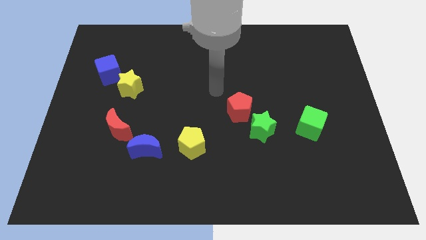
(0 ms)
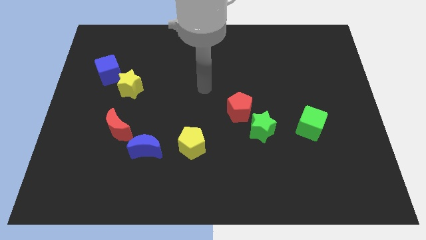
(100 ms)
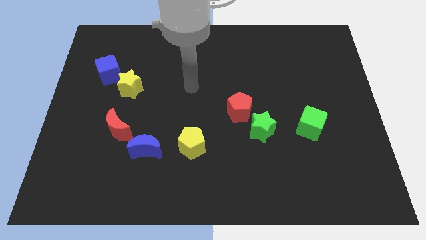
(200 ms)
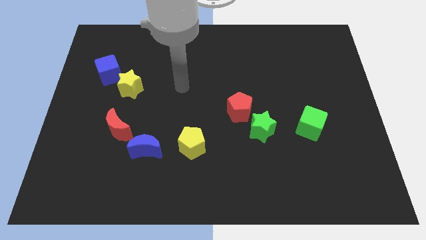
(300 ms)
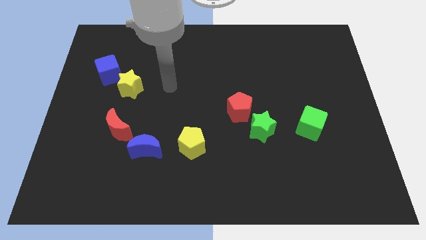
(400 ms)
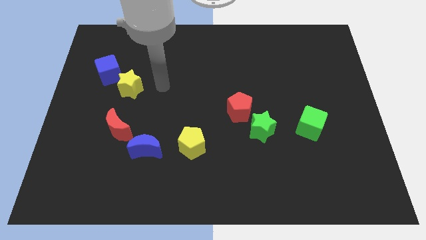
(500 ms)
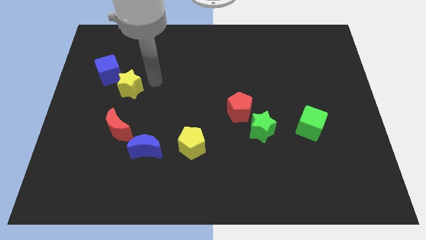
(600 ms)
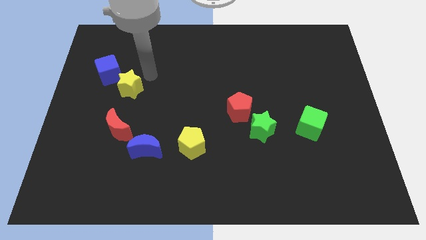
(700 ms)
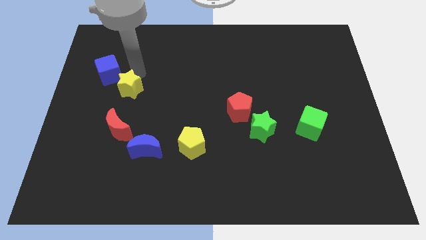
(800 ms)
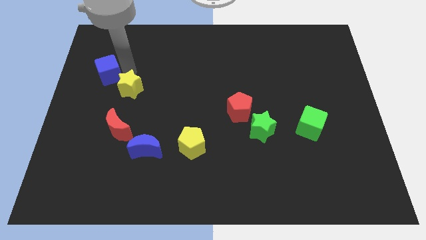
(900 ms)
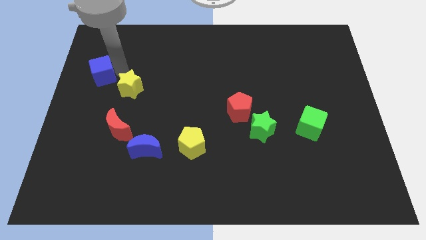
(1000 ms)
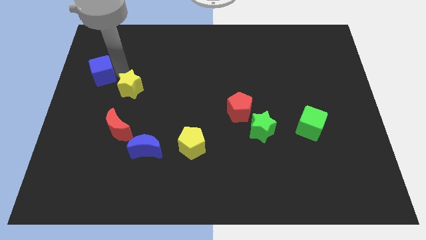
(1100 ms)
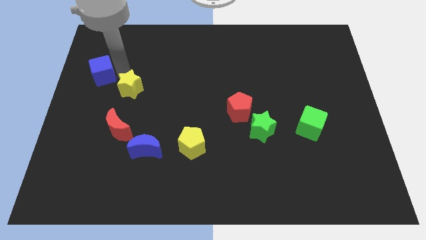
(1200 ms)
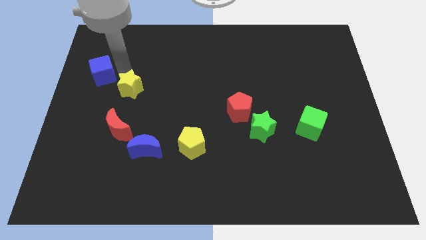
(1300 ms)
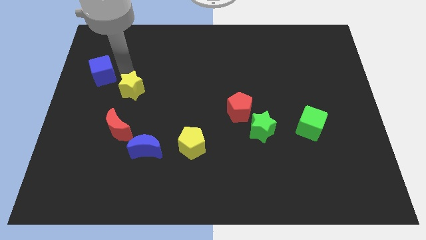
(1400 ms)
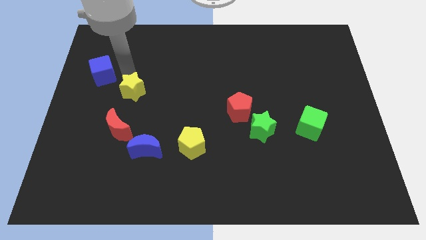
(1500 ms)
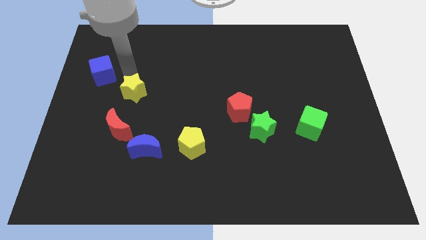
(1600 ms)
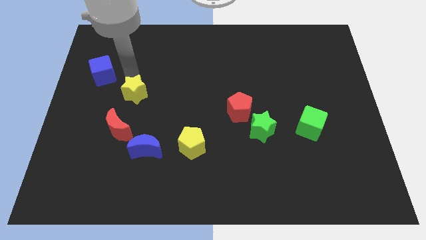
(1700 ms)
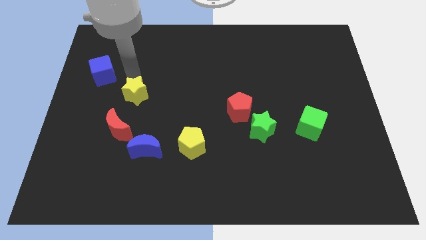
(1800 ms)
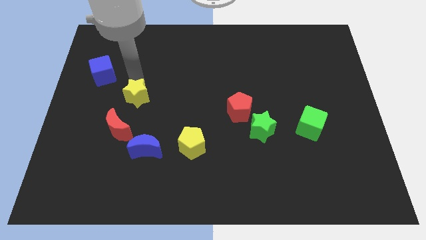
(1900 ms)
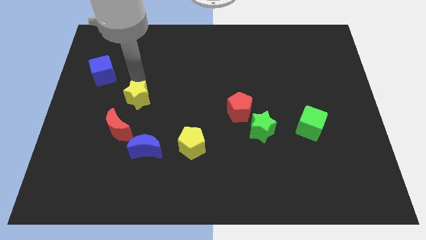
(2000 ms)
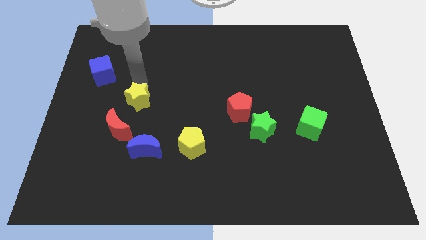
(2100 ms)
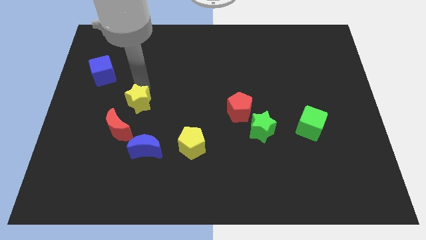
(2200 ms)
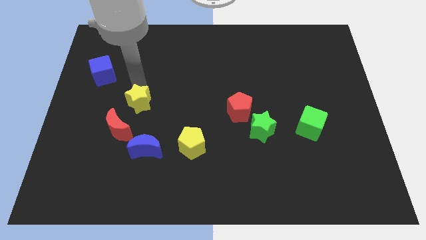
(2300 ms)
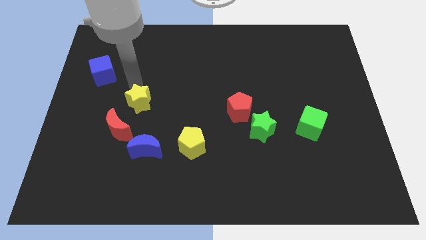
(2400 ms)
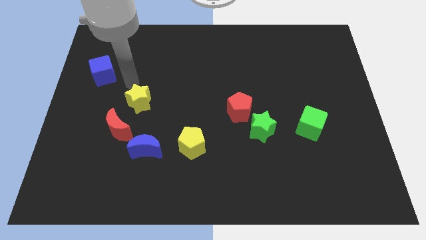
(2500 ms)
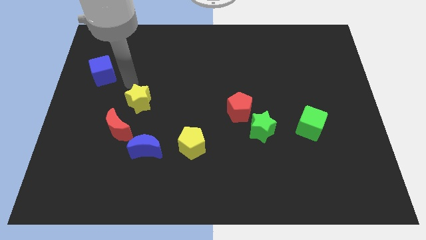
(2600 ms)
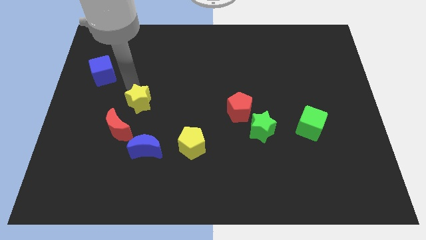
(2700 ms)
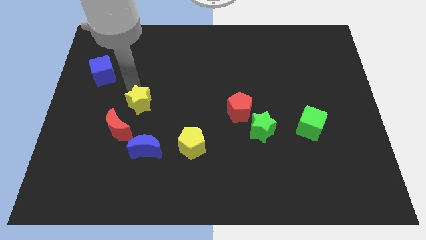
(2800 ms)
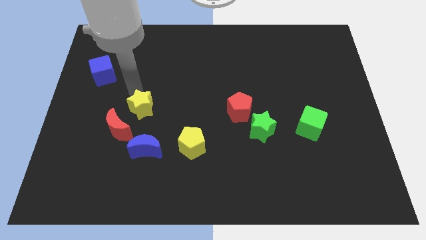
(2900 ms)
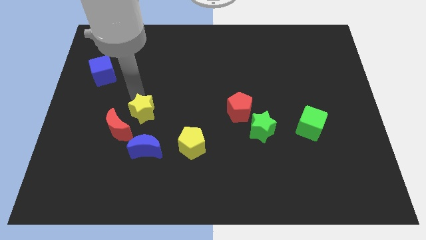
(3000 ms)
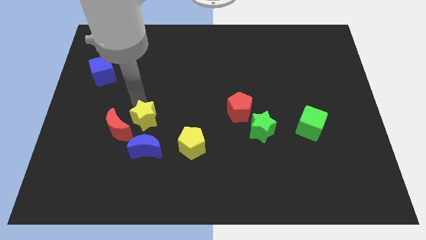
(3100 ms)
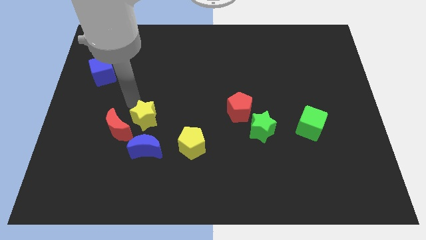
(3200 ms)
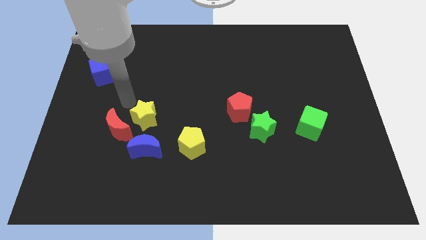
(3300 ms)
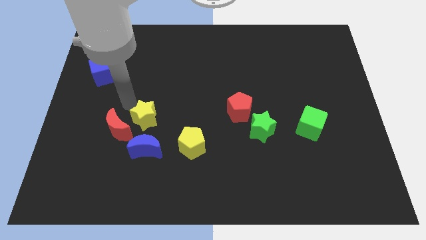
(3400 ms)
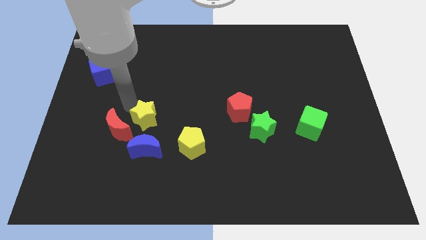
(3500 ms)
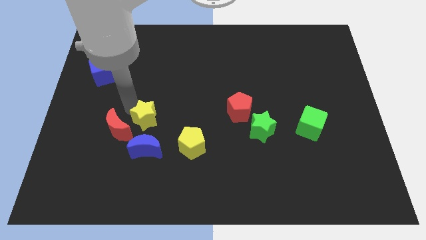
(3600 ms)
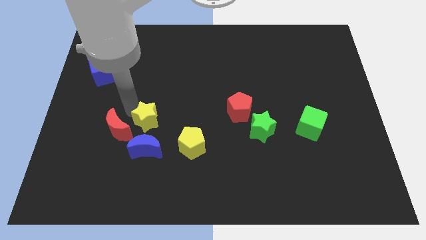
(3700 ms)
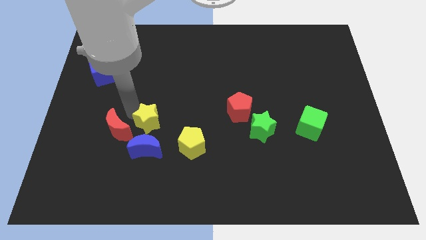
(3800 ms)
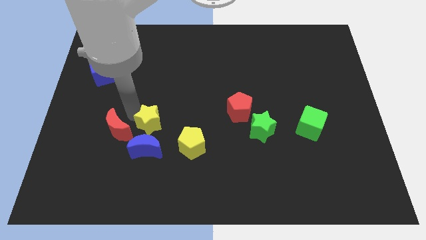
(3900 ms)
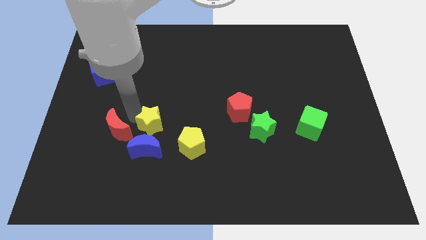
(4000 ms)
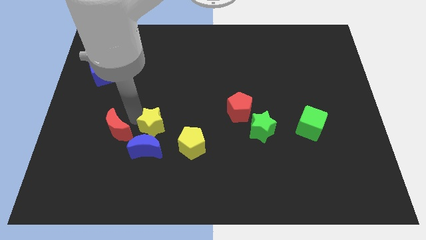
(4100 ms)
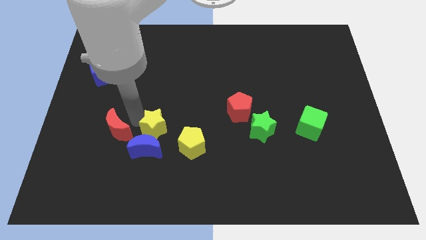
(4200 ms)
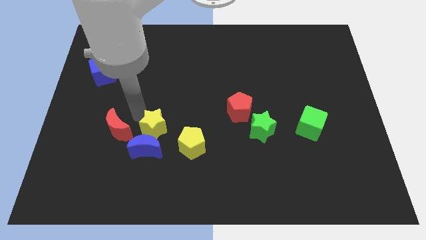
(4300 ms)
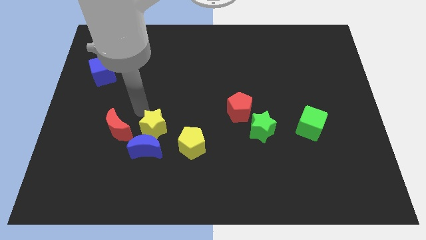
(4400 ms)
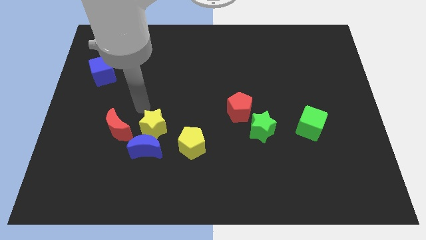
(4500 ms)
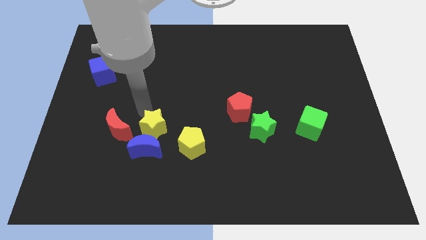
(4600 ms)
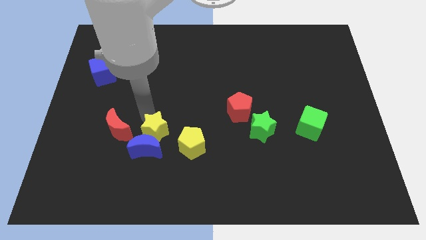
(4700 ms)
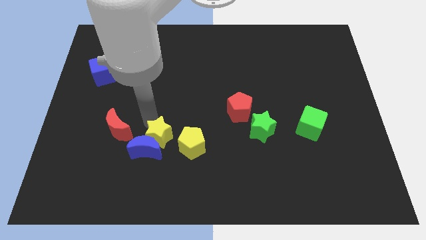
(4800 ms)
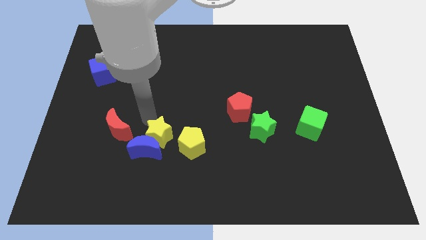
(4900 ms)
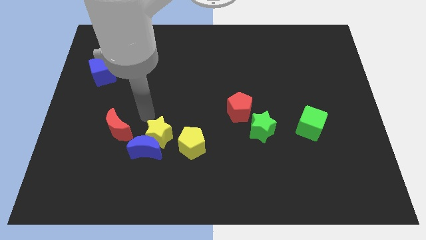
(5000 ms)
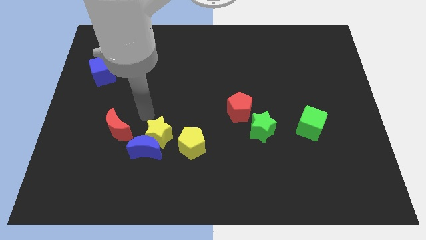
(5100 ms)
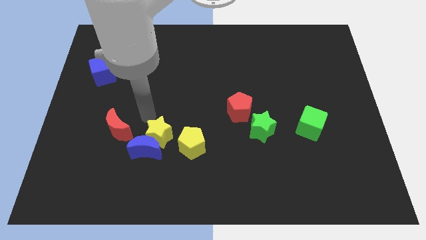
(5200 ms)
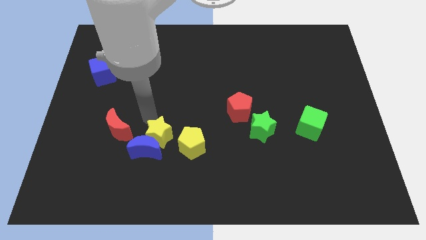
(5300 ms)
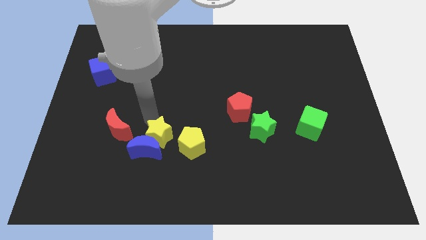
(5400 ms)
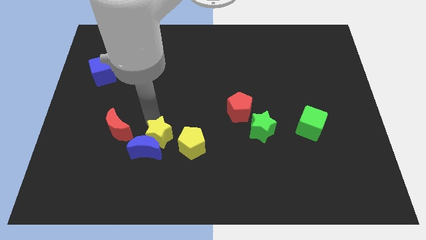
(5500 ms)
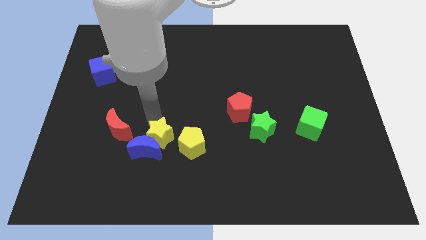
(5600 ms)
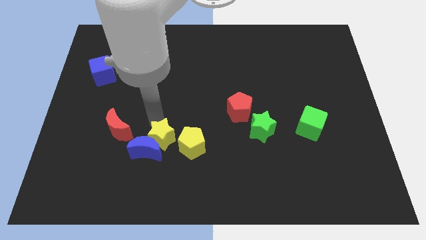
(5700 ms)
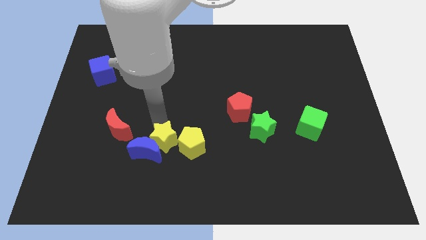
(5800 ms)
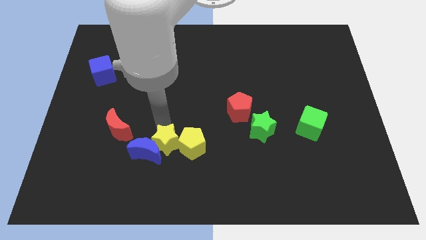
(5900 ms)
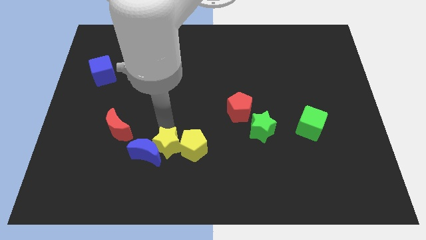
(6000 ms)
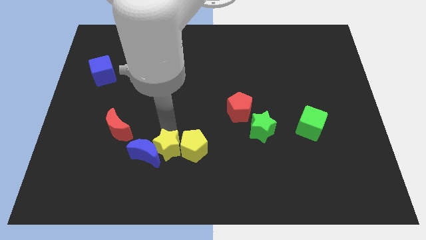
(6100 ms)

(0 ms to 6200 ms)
move the yellow star to the bottom right of the blue moon

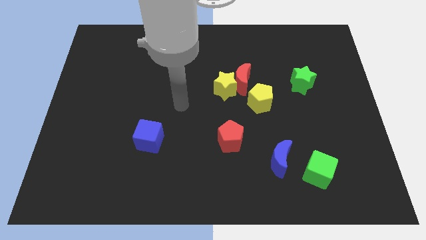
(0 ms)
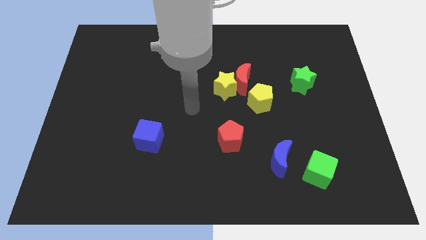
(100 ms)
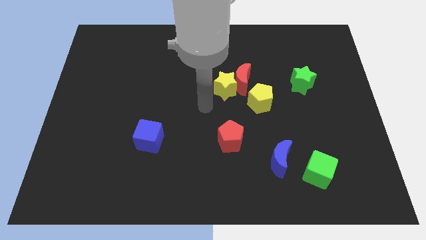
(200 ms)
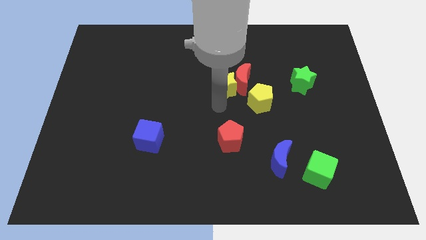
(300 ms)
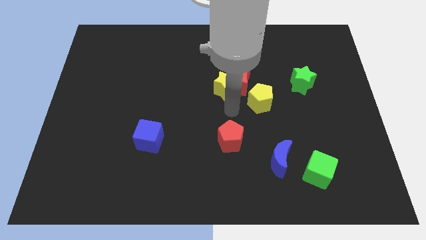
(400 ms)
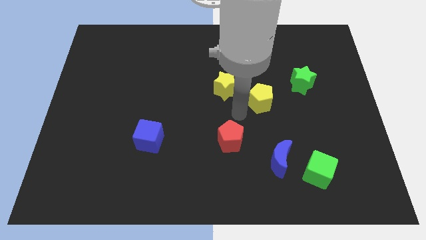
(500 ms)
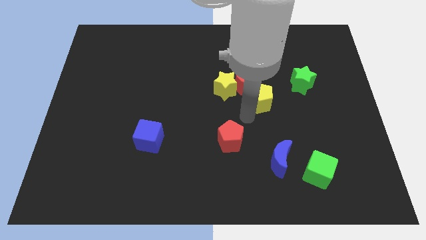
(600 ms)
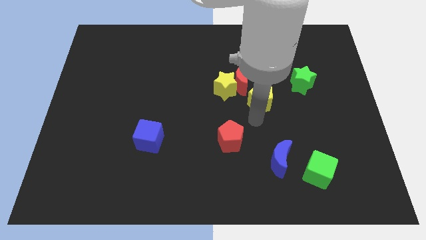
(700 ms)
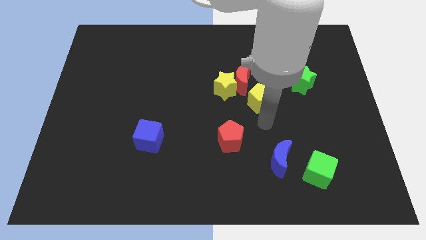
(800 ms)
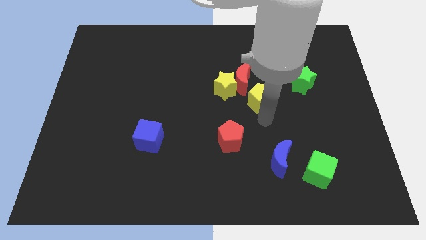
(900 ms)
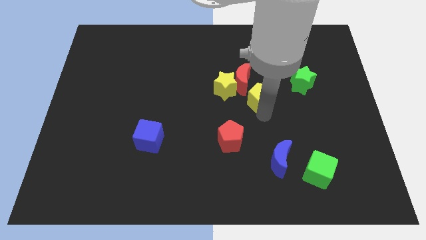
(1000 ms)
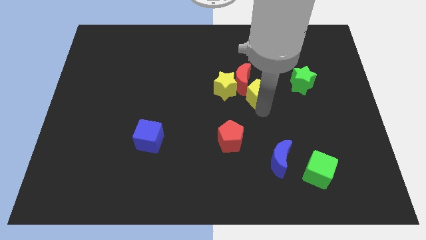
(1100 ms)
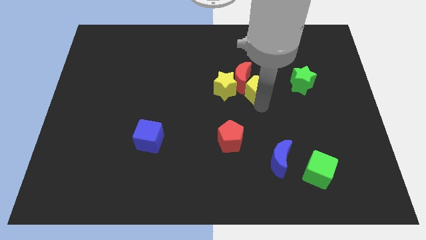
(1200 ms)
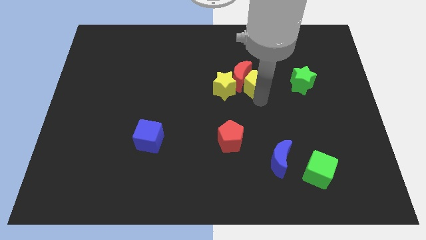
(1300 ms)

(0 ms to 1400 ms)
put the yellow pentagon to the top right side of the yellow star
